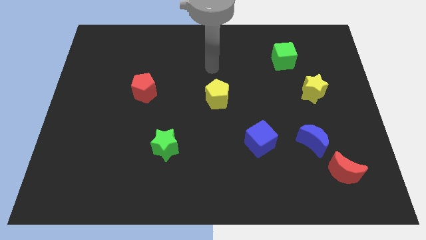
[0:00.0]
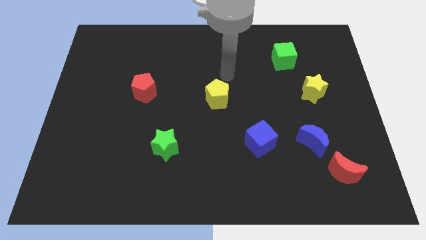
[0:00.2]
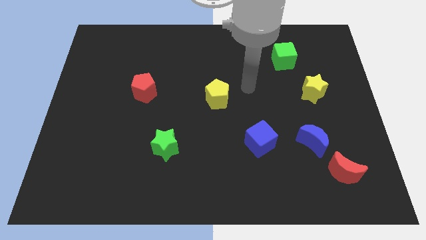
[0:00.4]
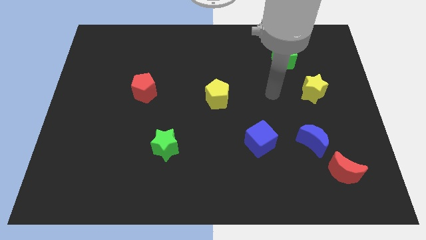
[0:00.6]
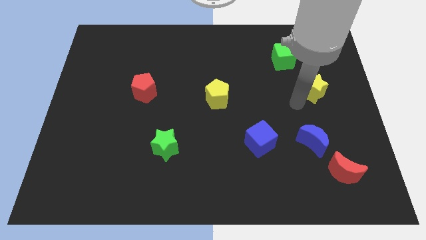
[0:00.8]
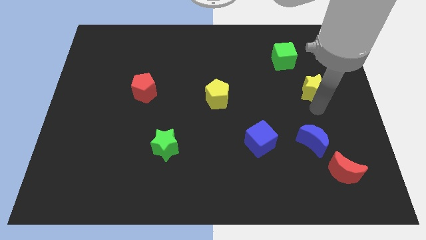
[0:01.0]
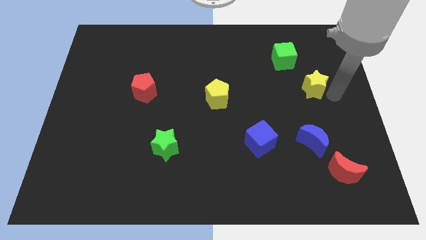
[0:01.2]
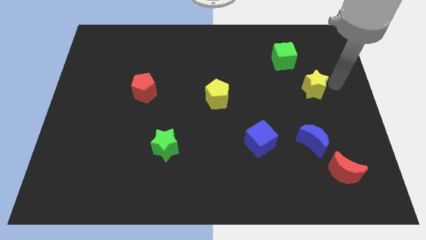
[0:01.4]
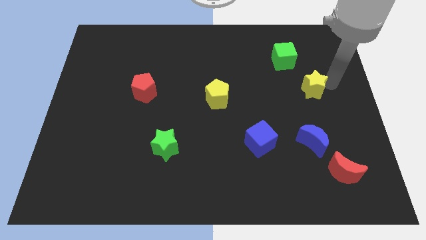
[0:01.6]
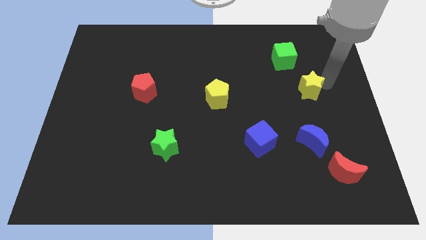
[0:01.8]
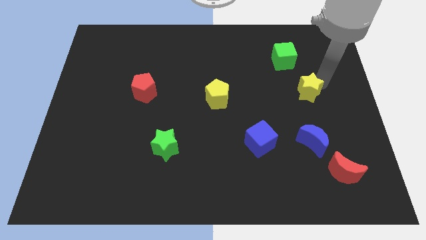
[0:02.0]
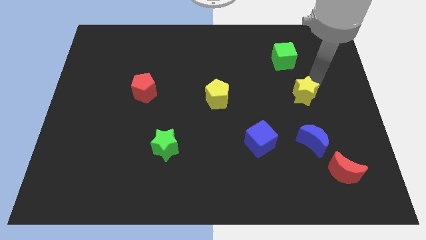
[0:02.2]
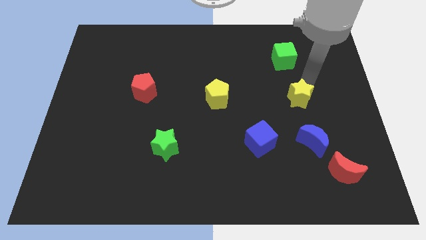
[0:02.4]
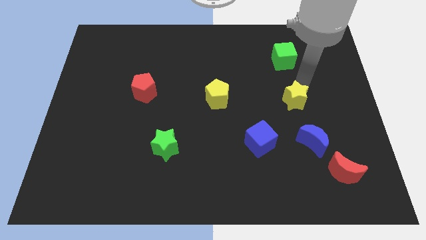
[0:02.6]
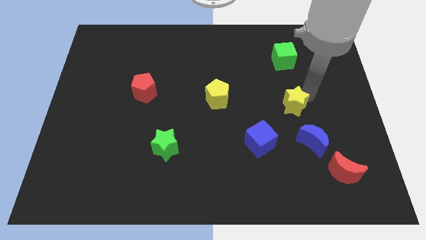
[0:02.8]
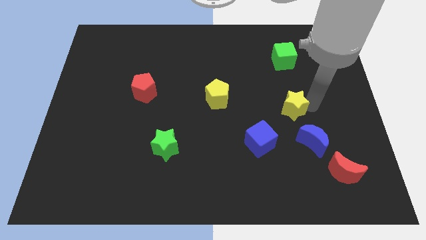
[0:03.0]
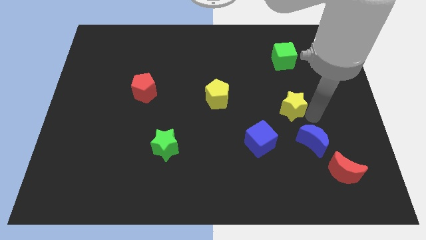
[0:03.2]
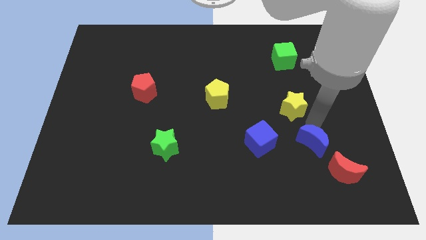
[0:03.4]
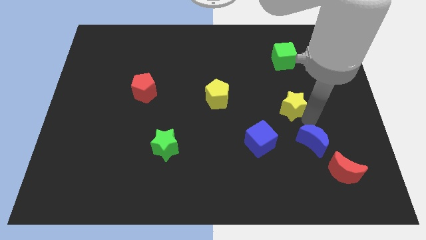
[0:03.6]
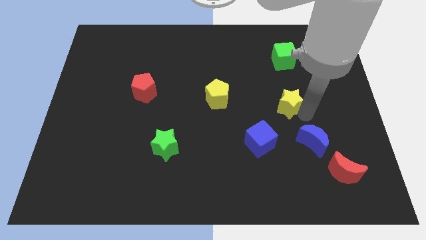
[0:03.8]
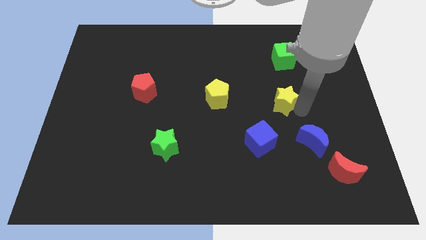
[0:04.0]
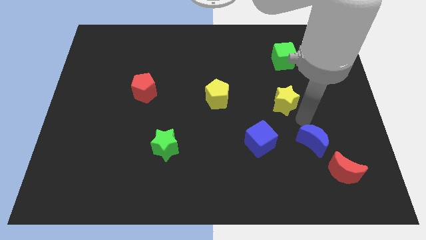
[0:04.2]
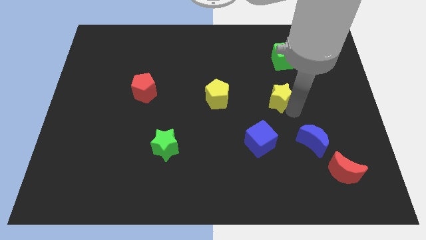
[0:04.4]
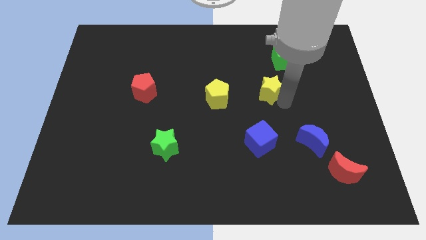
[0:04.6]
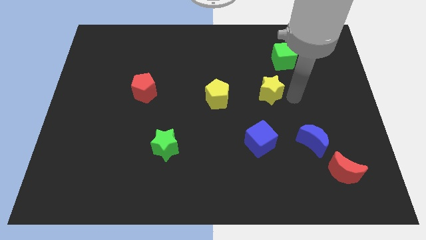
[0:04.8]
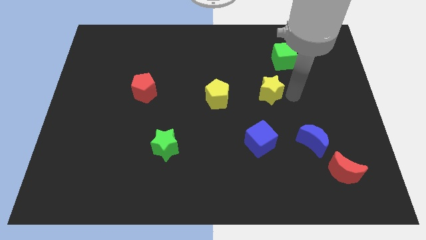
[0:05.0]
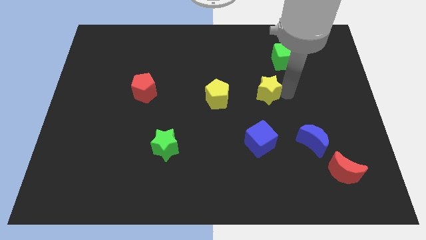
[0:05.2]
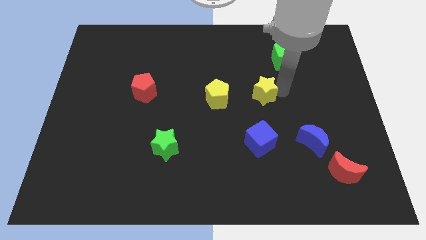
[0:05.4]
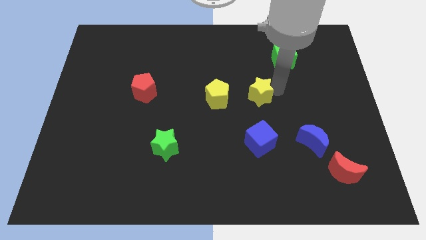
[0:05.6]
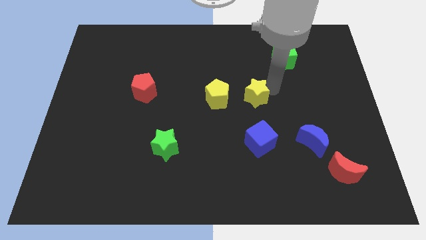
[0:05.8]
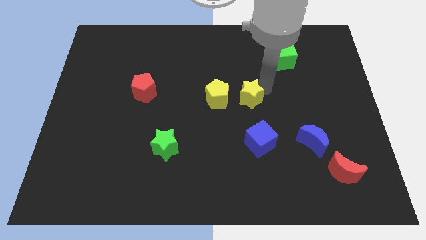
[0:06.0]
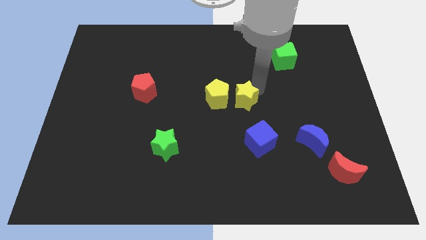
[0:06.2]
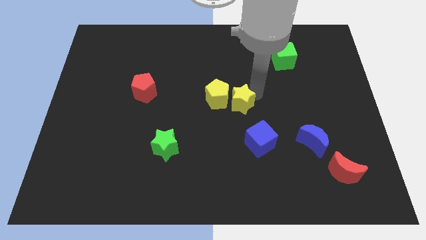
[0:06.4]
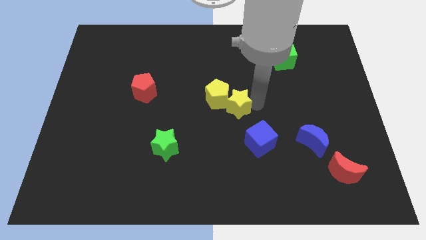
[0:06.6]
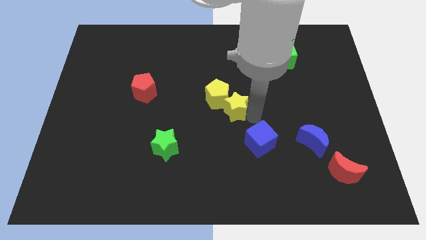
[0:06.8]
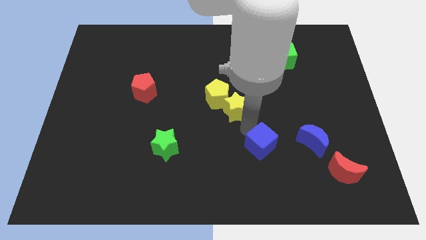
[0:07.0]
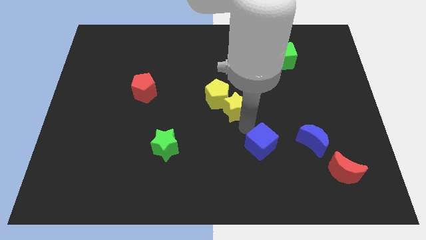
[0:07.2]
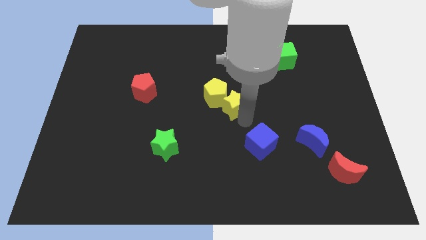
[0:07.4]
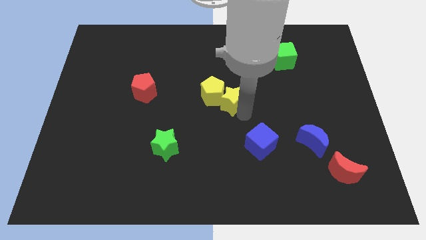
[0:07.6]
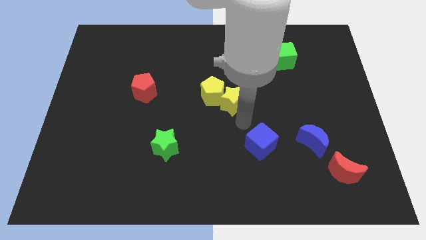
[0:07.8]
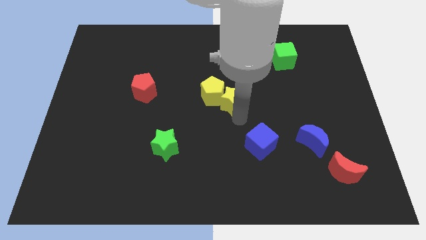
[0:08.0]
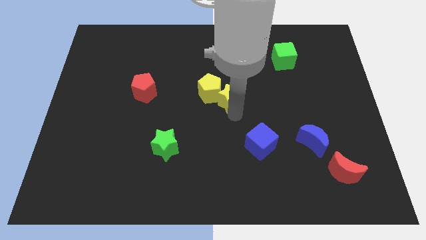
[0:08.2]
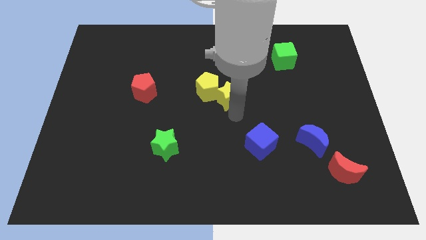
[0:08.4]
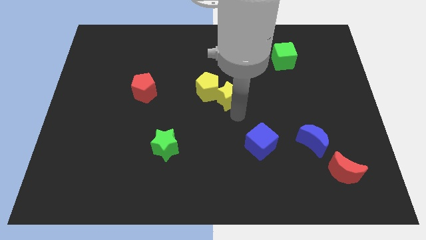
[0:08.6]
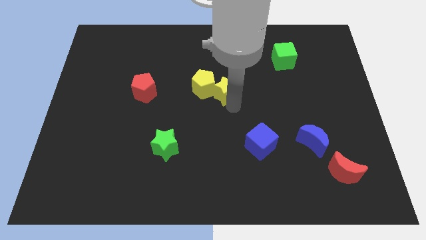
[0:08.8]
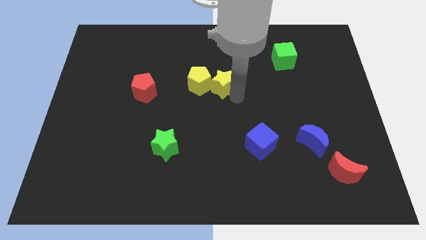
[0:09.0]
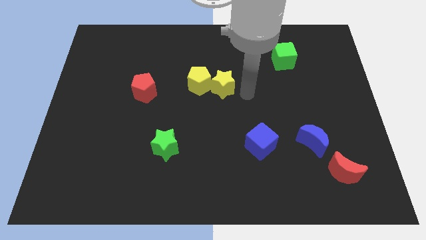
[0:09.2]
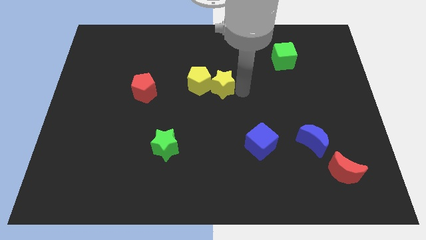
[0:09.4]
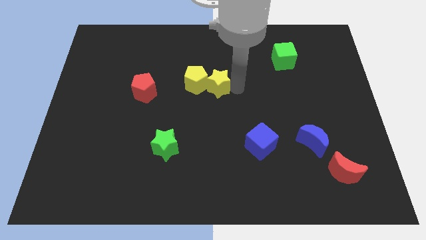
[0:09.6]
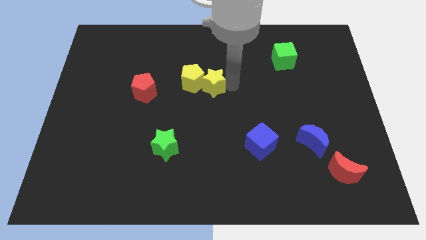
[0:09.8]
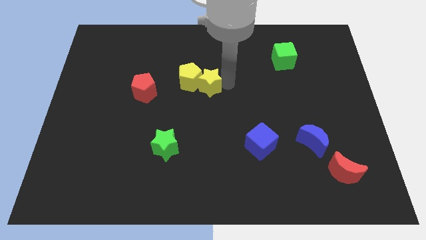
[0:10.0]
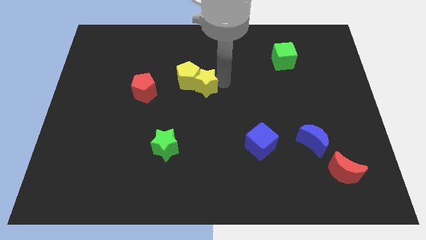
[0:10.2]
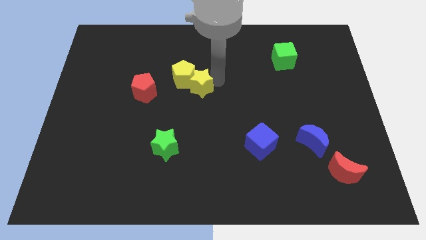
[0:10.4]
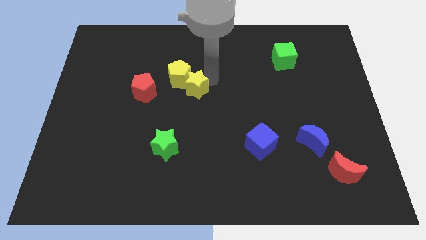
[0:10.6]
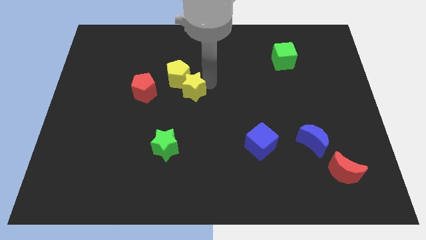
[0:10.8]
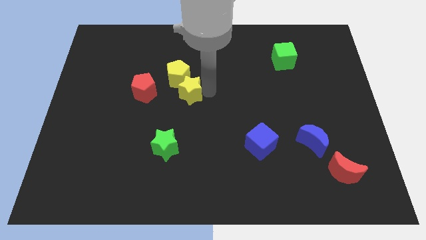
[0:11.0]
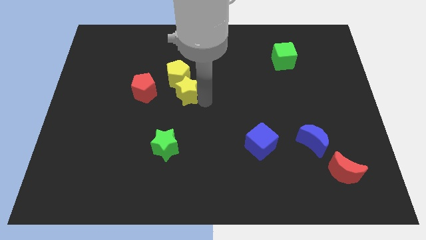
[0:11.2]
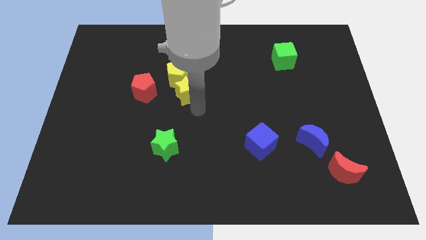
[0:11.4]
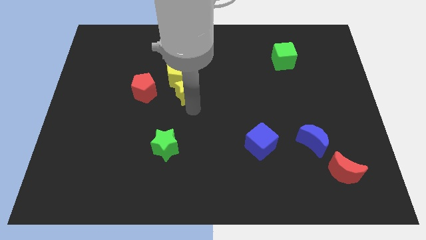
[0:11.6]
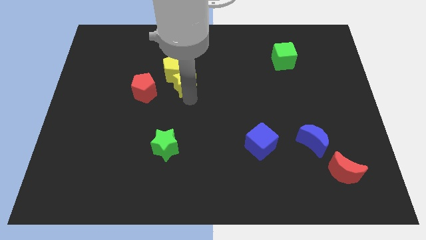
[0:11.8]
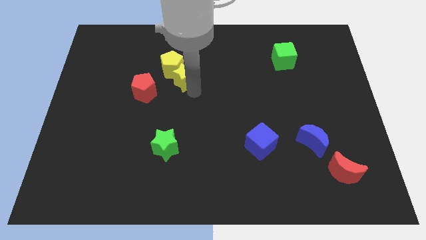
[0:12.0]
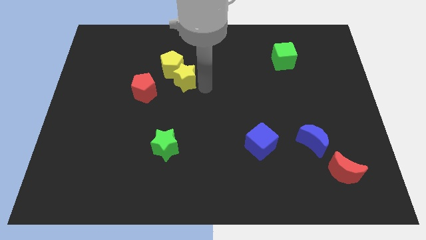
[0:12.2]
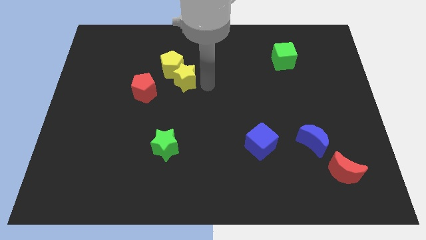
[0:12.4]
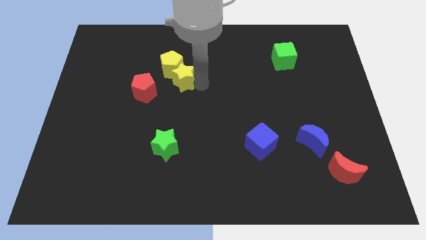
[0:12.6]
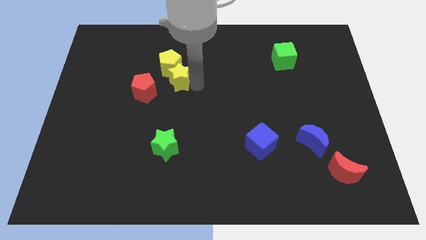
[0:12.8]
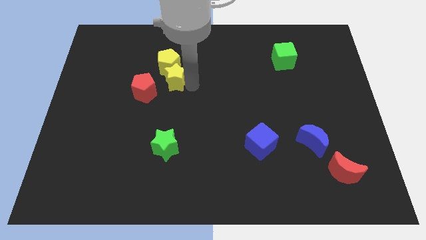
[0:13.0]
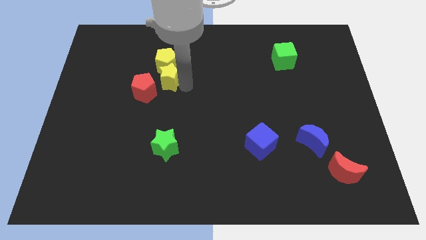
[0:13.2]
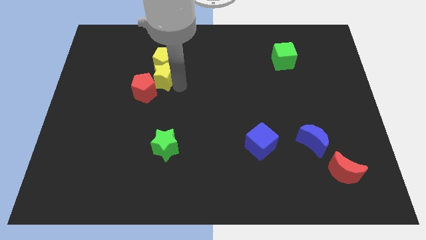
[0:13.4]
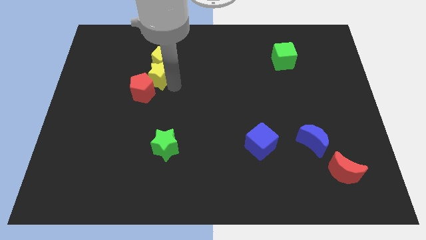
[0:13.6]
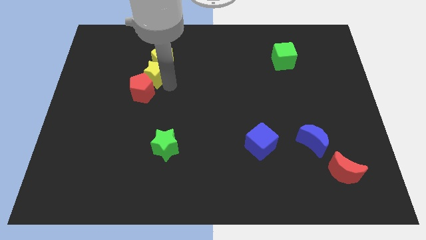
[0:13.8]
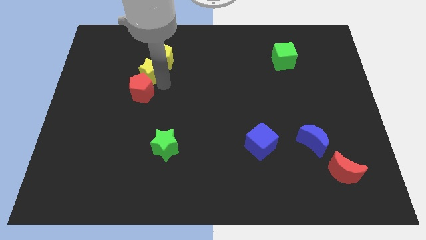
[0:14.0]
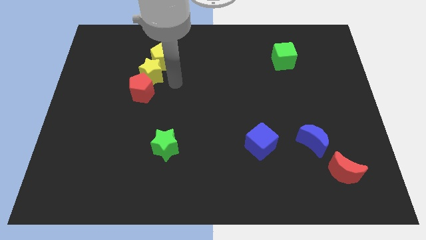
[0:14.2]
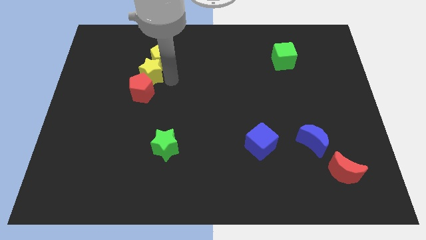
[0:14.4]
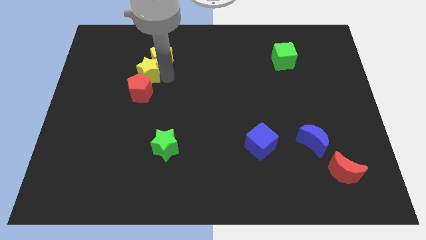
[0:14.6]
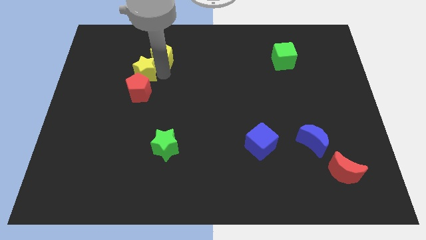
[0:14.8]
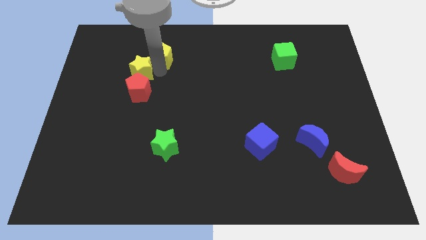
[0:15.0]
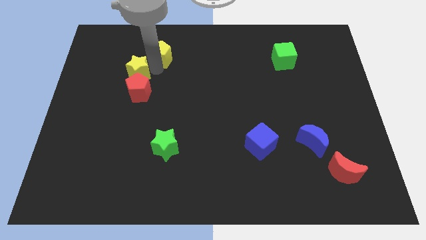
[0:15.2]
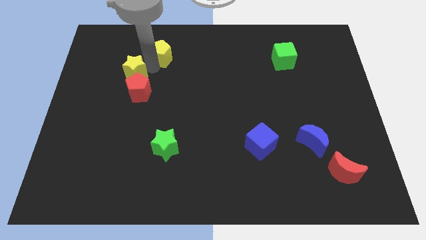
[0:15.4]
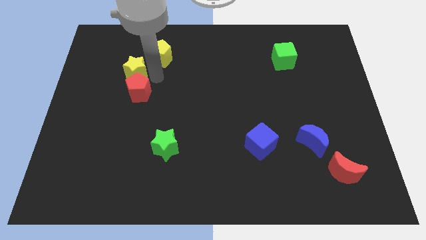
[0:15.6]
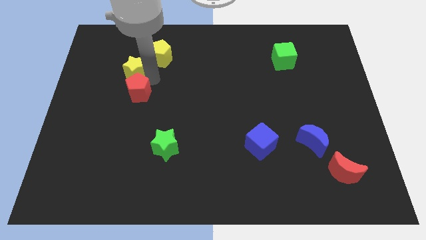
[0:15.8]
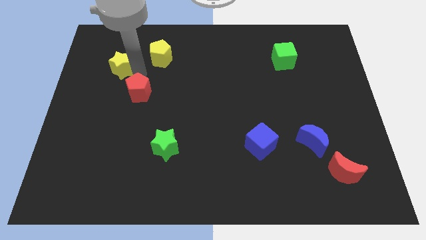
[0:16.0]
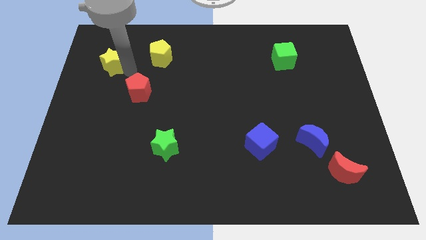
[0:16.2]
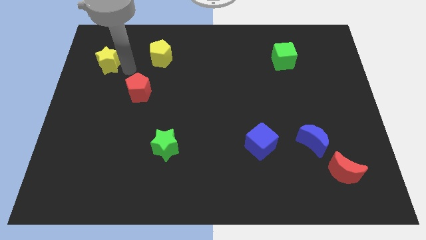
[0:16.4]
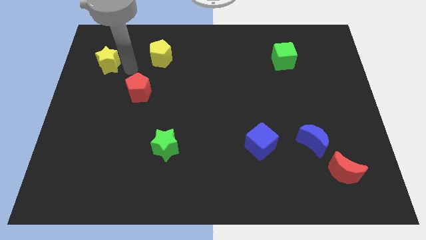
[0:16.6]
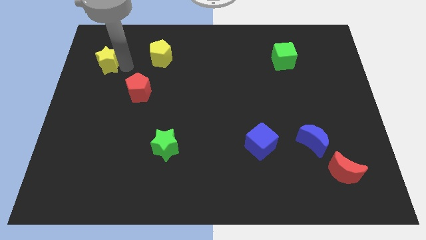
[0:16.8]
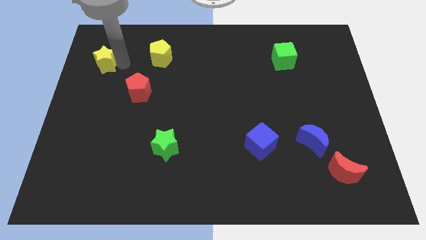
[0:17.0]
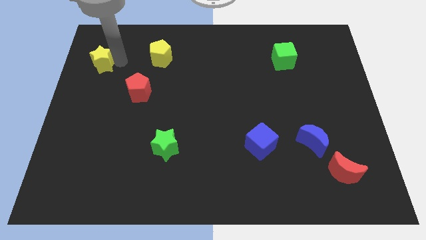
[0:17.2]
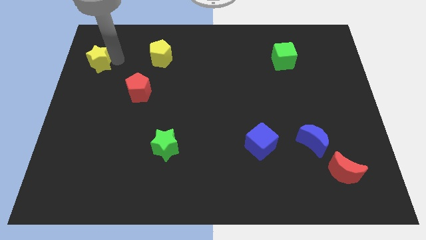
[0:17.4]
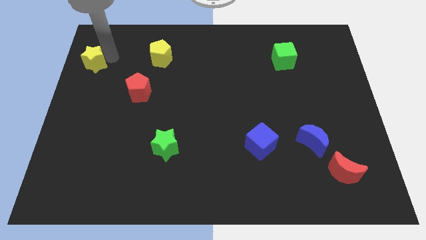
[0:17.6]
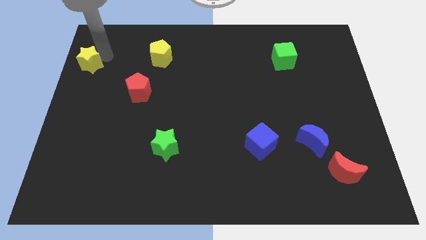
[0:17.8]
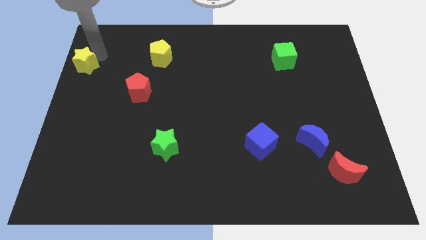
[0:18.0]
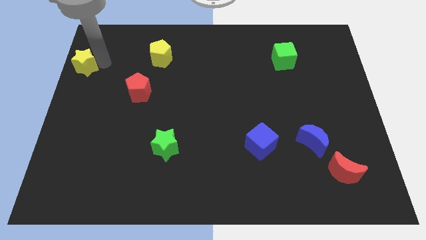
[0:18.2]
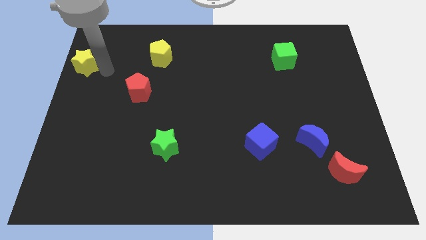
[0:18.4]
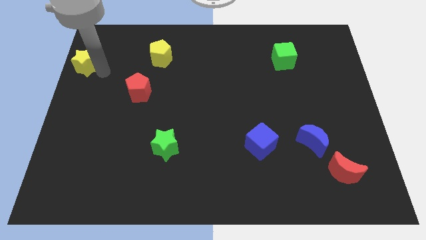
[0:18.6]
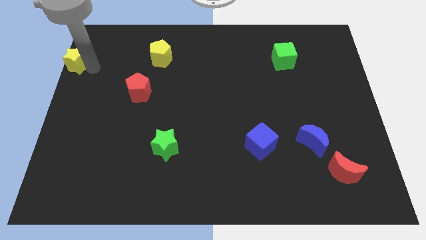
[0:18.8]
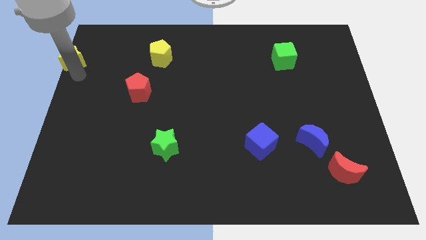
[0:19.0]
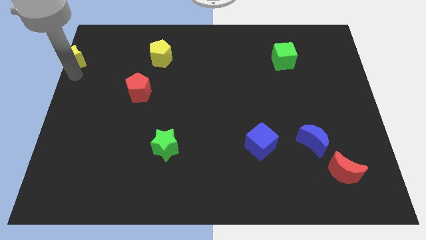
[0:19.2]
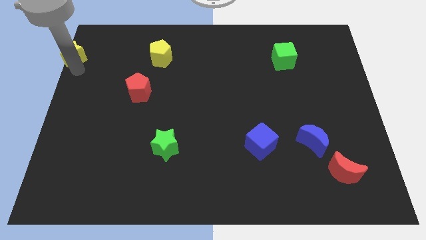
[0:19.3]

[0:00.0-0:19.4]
push the yellow star to the upper left corner
